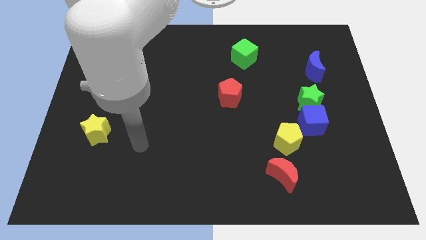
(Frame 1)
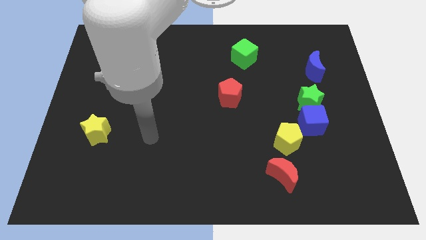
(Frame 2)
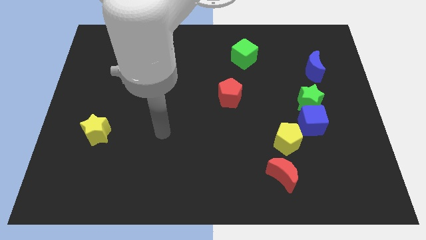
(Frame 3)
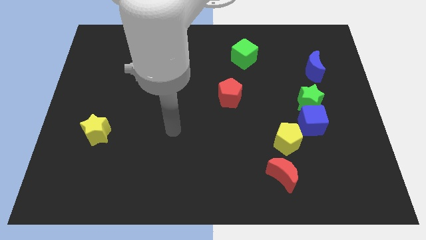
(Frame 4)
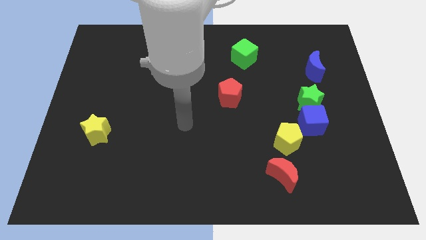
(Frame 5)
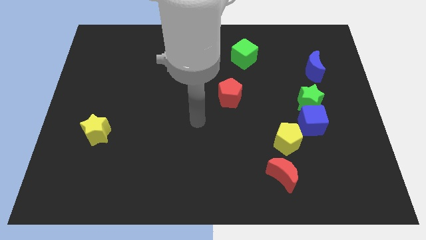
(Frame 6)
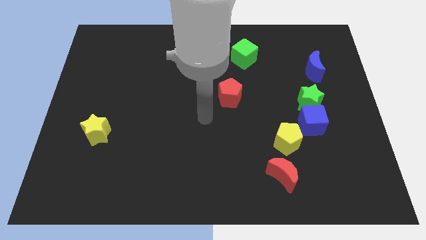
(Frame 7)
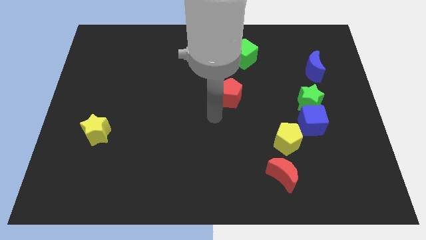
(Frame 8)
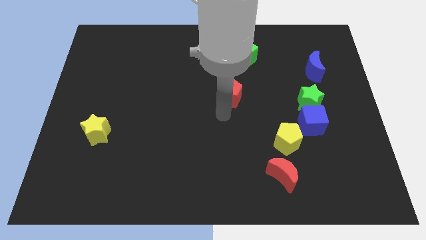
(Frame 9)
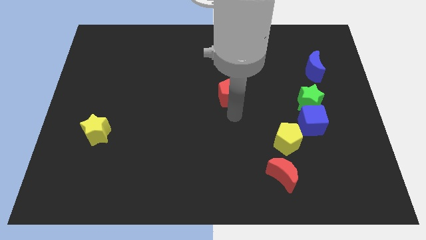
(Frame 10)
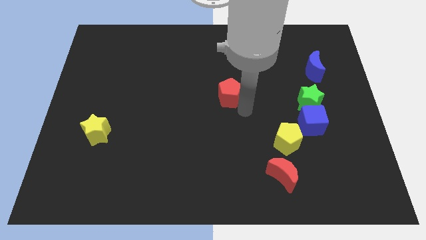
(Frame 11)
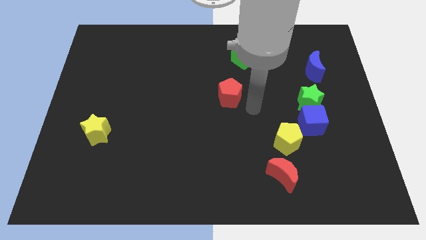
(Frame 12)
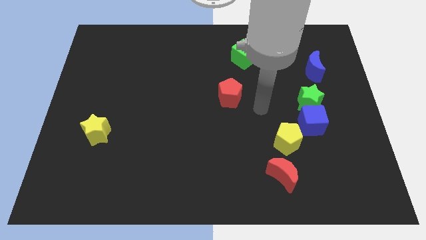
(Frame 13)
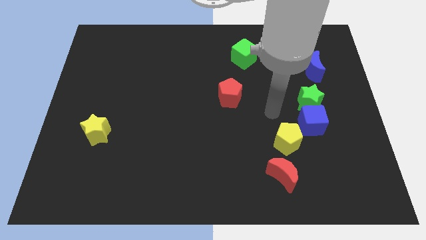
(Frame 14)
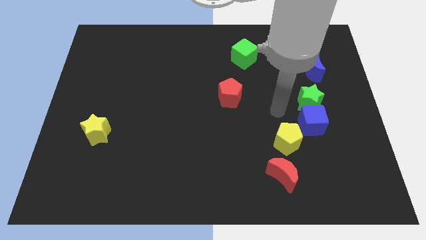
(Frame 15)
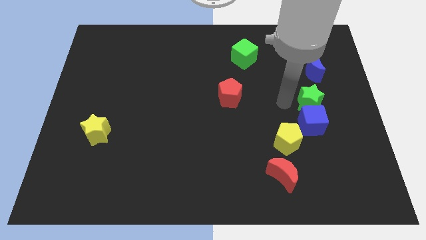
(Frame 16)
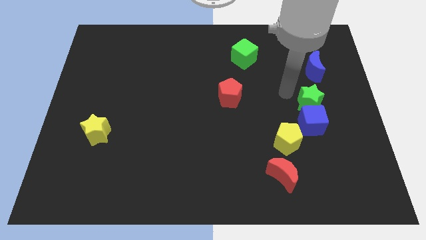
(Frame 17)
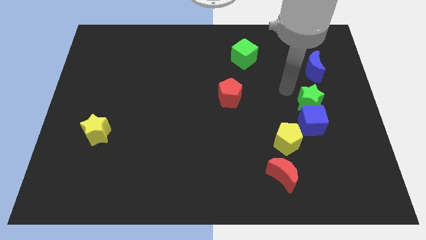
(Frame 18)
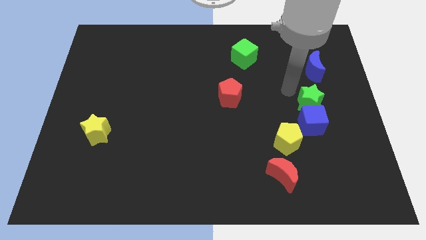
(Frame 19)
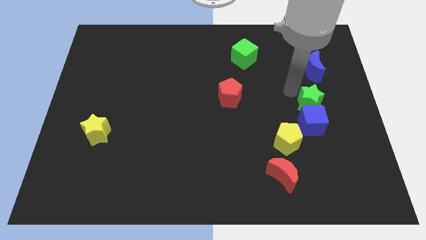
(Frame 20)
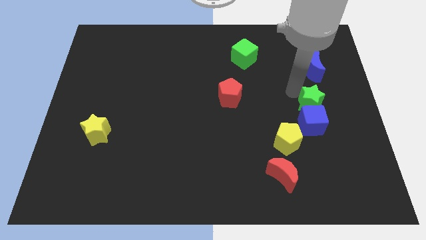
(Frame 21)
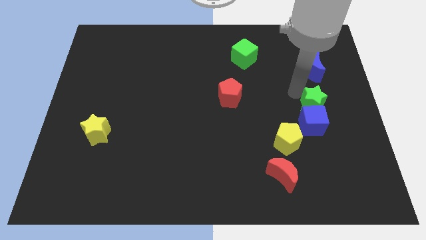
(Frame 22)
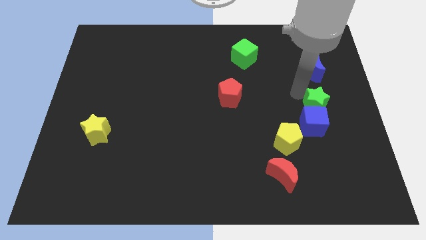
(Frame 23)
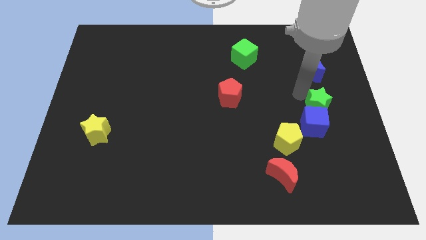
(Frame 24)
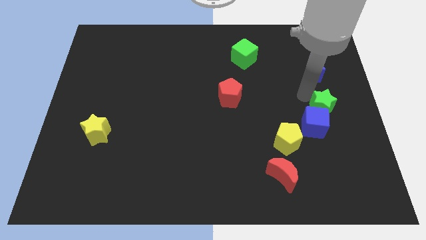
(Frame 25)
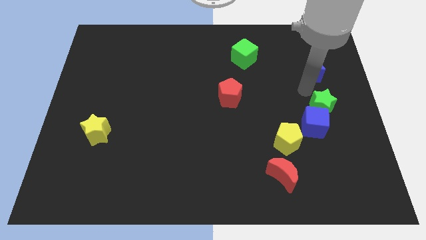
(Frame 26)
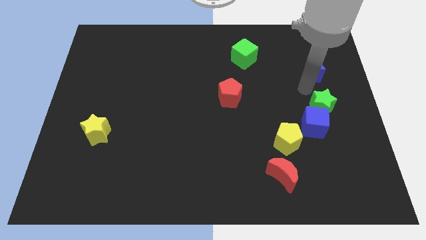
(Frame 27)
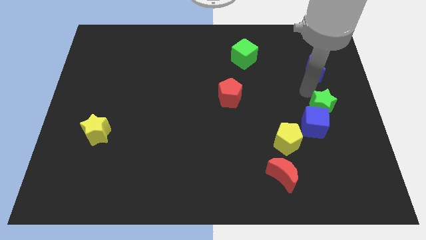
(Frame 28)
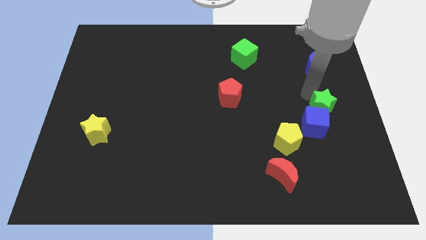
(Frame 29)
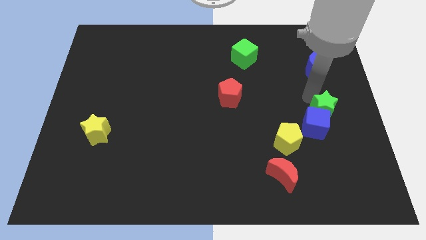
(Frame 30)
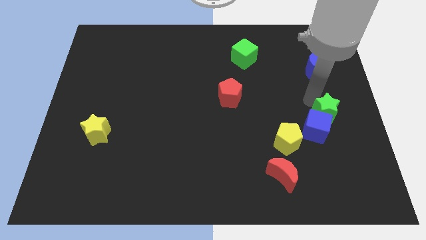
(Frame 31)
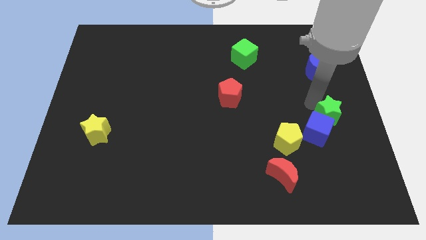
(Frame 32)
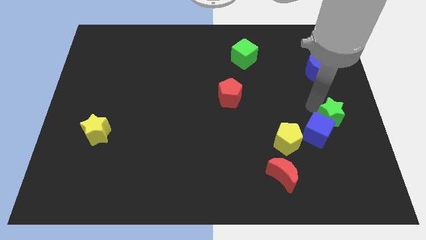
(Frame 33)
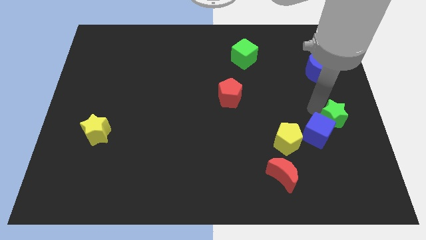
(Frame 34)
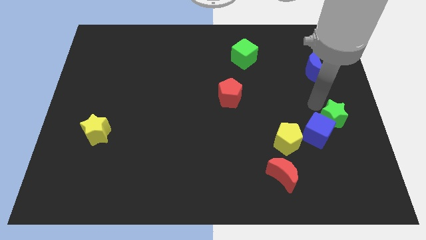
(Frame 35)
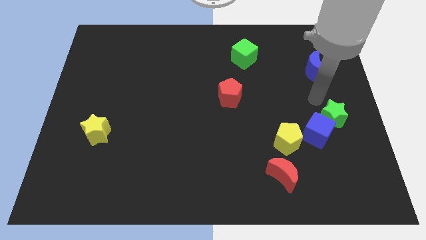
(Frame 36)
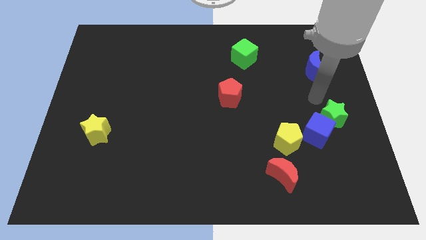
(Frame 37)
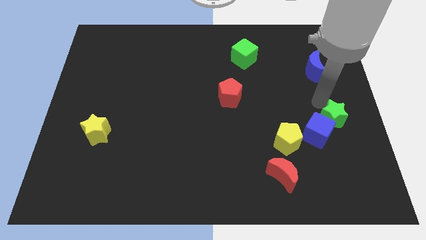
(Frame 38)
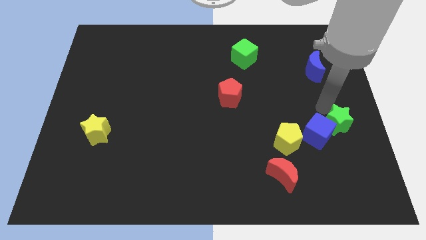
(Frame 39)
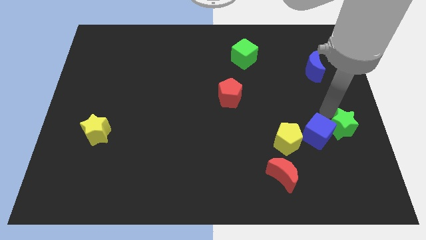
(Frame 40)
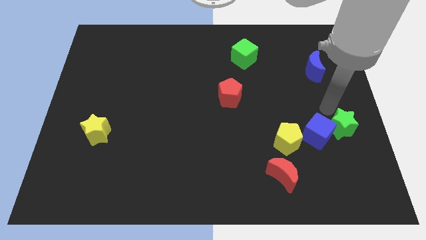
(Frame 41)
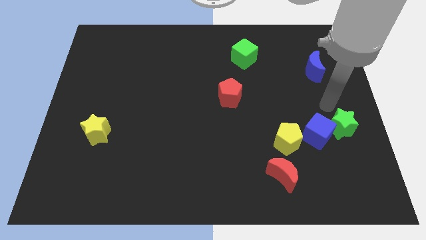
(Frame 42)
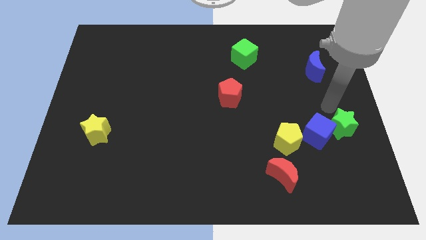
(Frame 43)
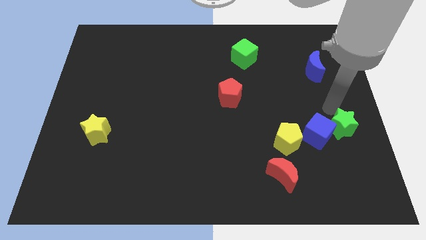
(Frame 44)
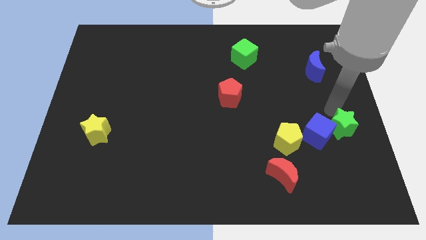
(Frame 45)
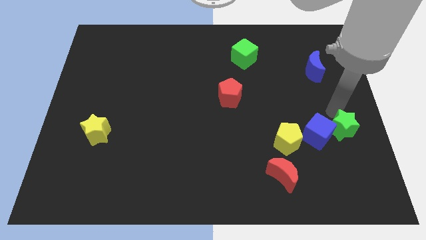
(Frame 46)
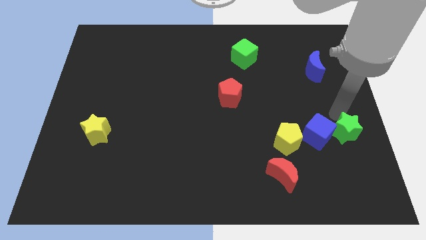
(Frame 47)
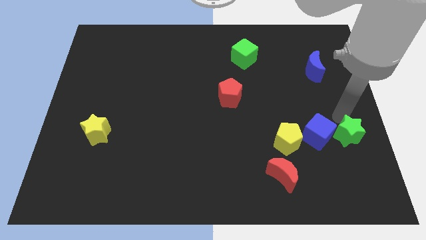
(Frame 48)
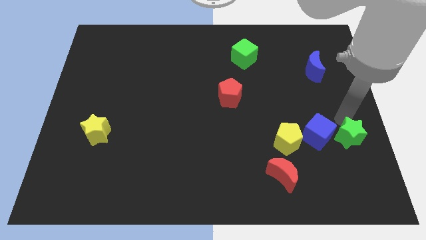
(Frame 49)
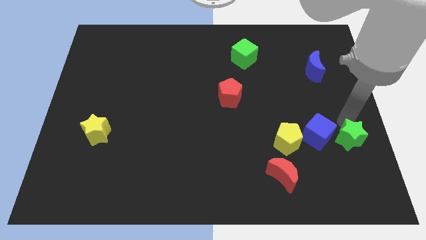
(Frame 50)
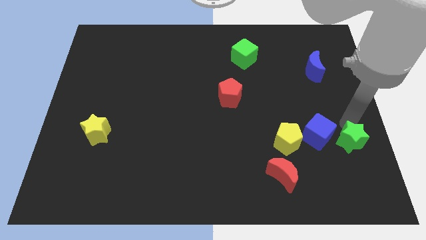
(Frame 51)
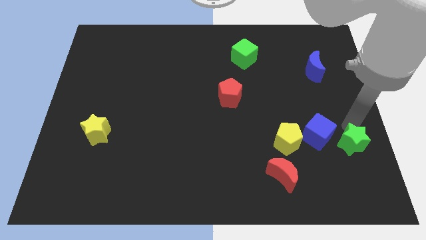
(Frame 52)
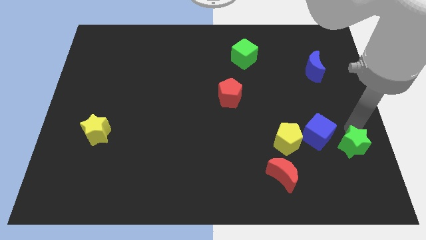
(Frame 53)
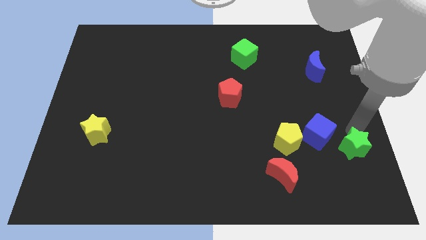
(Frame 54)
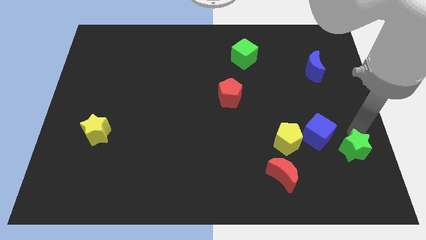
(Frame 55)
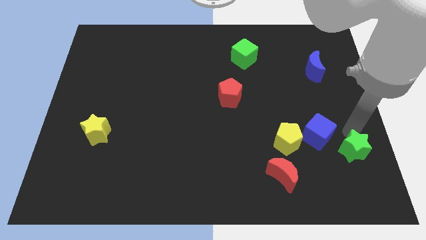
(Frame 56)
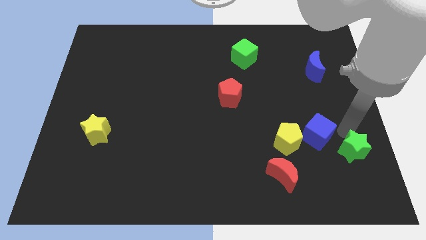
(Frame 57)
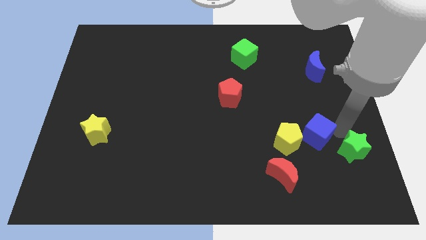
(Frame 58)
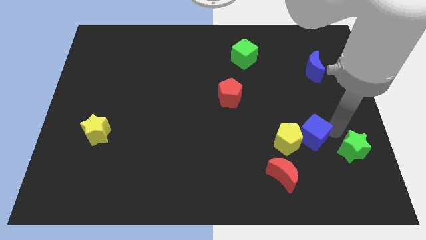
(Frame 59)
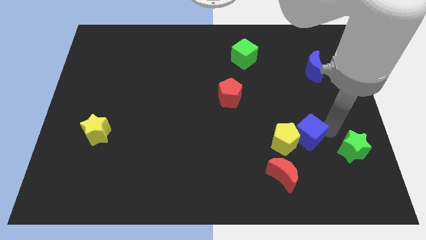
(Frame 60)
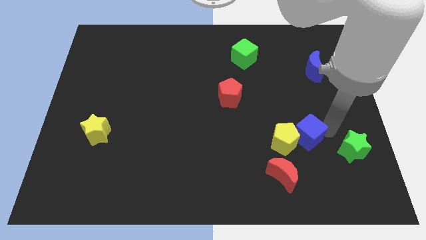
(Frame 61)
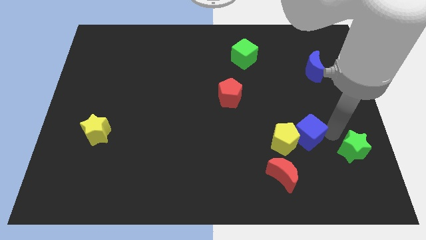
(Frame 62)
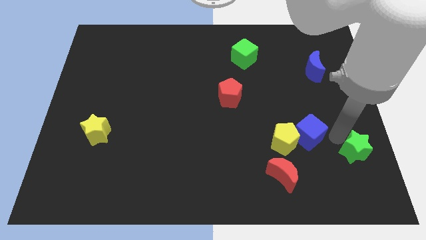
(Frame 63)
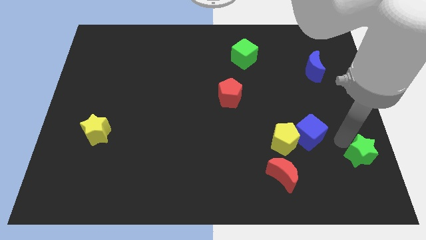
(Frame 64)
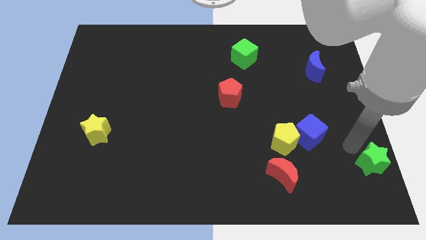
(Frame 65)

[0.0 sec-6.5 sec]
put the green star to the bottom right corner
